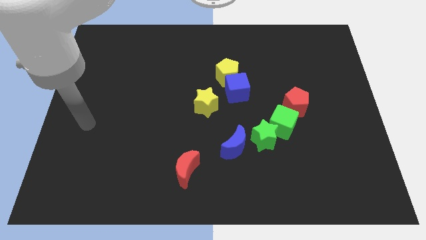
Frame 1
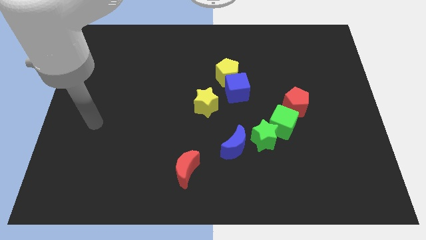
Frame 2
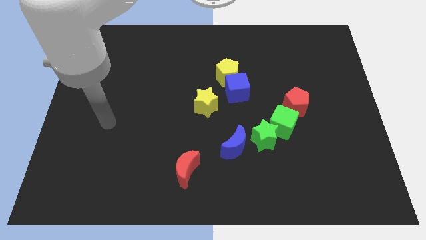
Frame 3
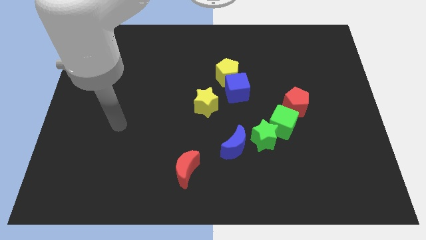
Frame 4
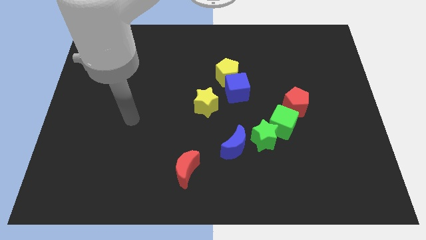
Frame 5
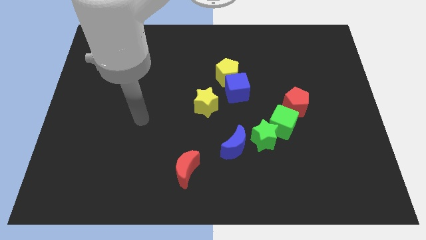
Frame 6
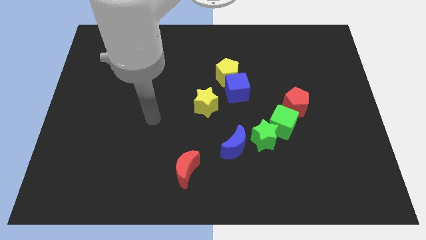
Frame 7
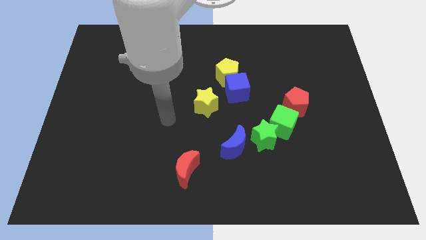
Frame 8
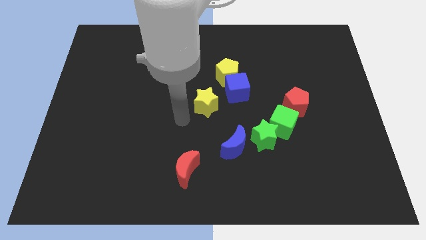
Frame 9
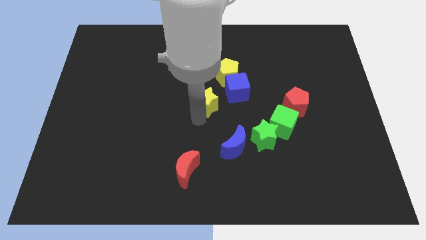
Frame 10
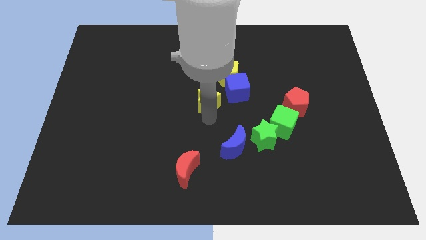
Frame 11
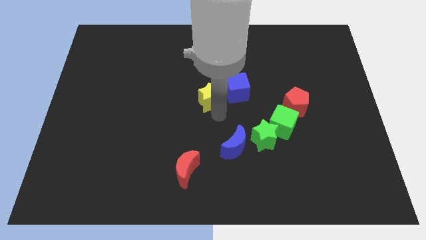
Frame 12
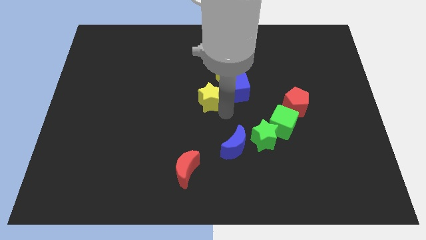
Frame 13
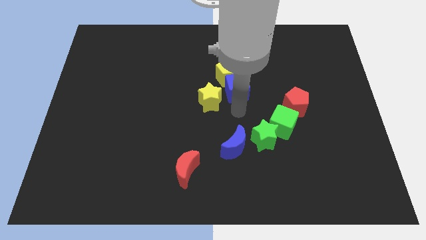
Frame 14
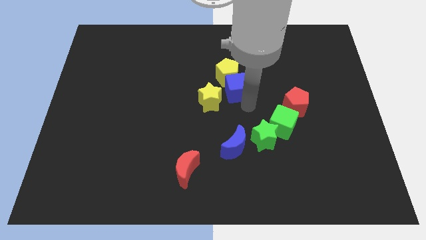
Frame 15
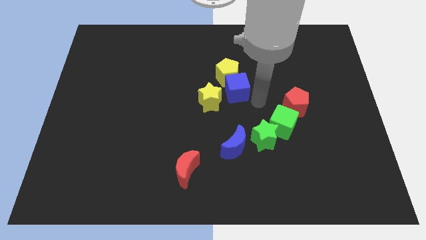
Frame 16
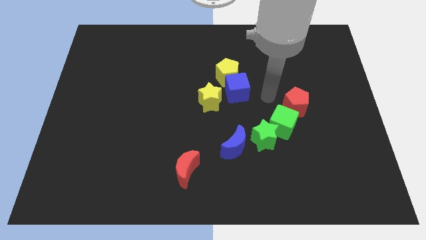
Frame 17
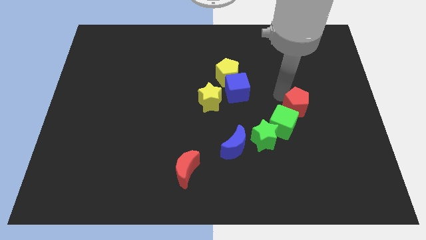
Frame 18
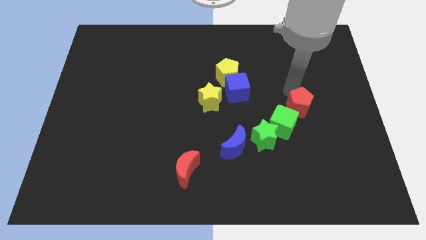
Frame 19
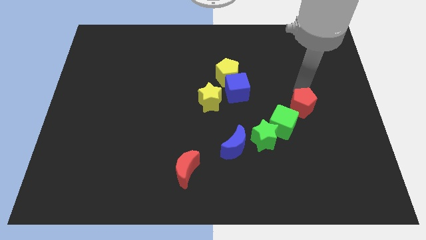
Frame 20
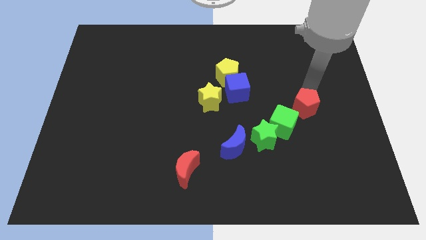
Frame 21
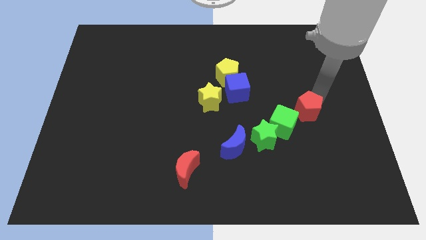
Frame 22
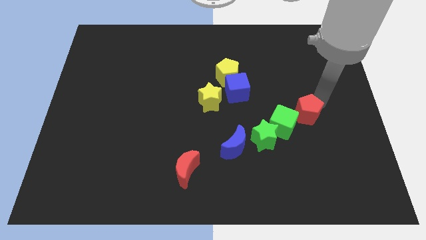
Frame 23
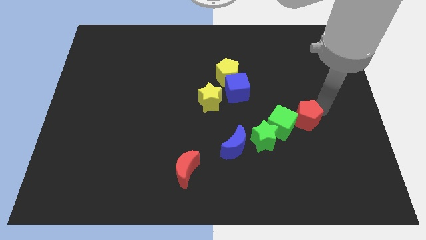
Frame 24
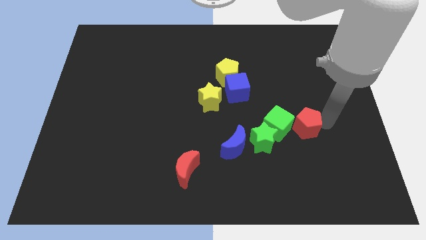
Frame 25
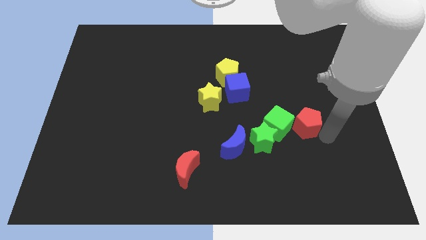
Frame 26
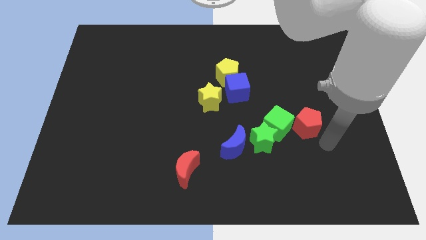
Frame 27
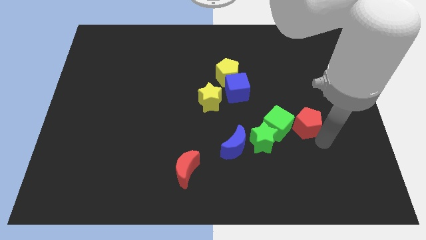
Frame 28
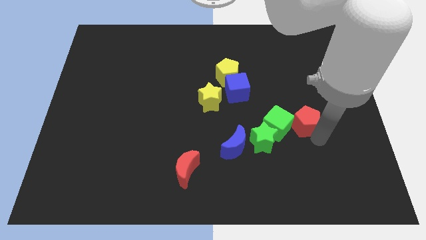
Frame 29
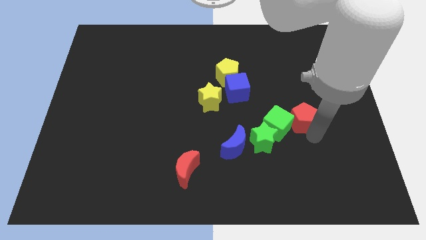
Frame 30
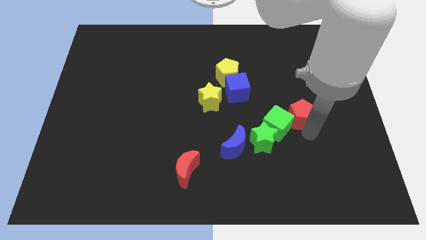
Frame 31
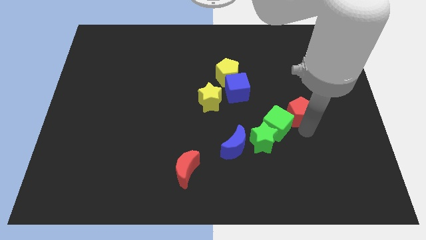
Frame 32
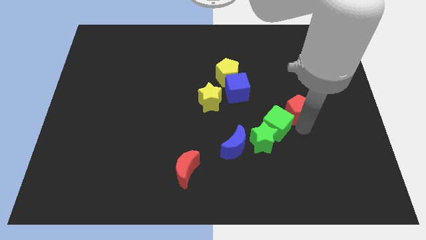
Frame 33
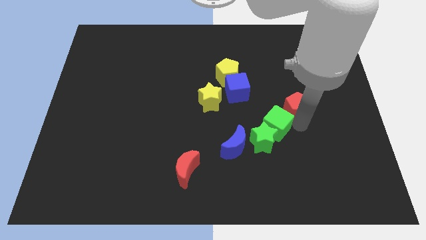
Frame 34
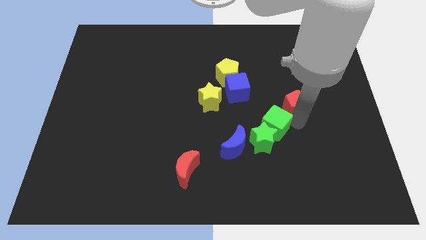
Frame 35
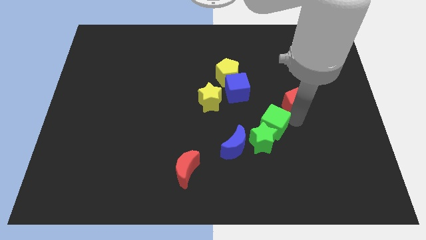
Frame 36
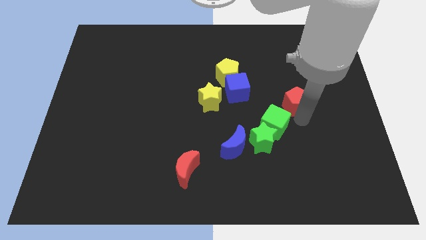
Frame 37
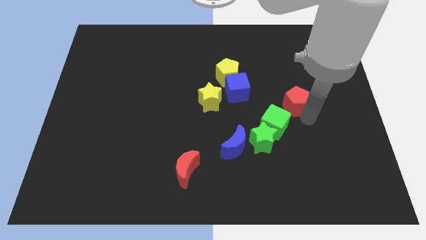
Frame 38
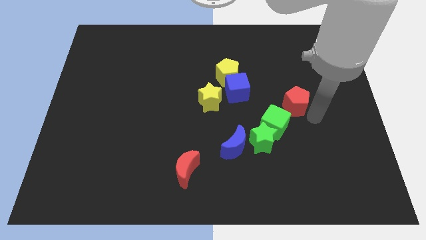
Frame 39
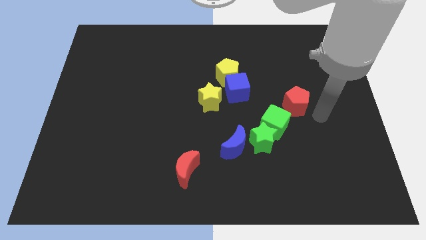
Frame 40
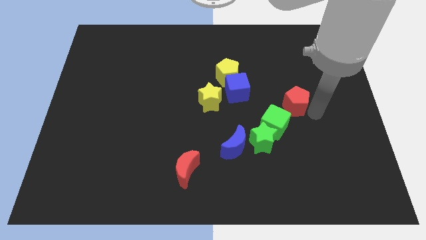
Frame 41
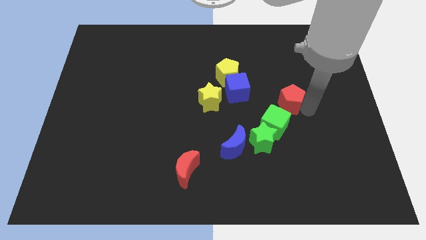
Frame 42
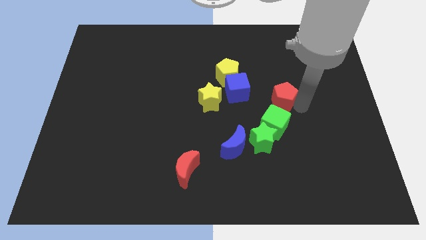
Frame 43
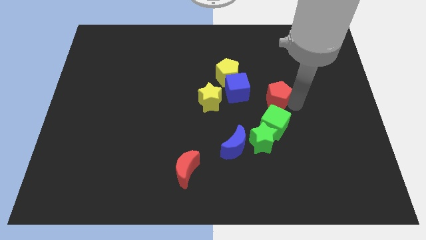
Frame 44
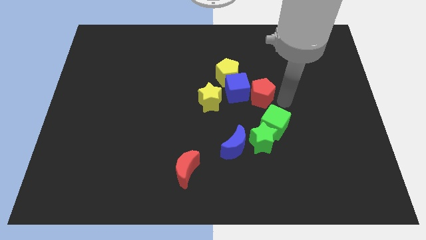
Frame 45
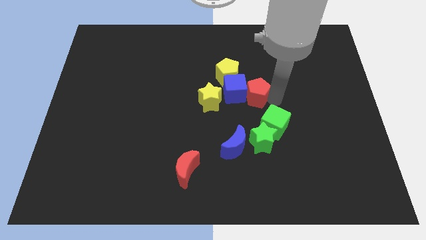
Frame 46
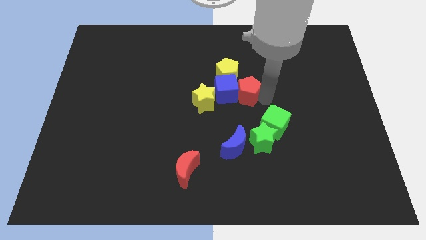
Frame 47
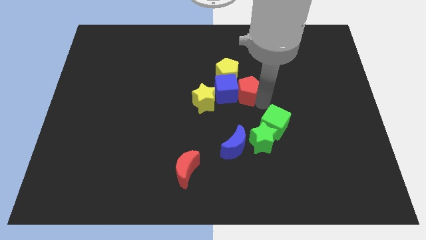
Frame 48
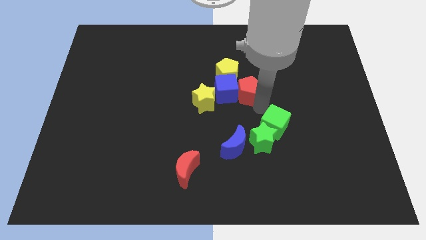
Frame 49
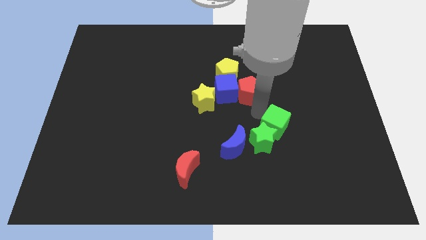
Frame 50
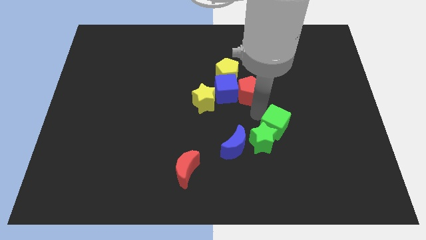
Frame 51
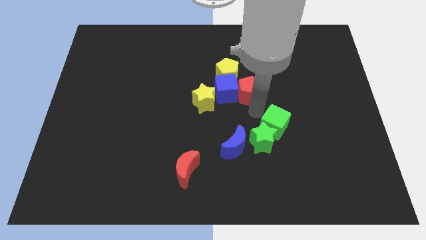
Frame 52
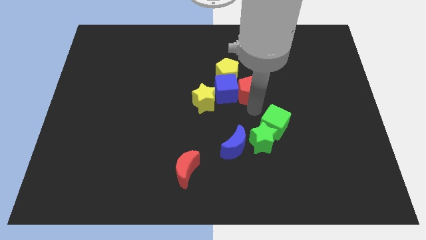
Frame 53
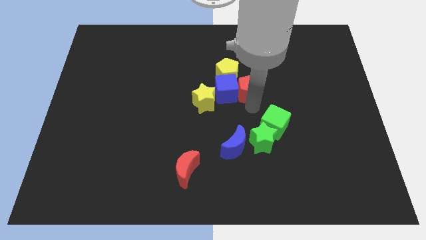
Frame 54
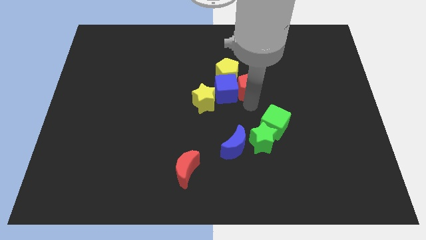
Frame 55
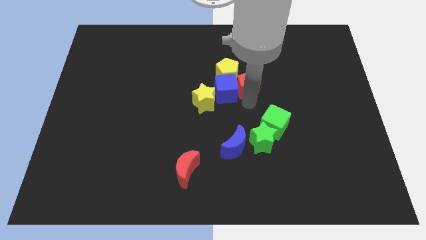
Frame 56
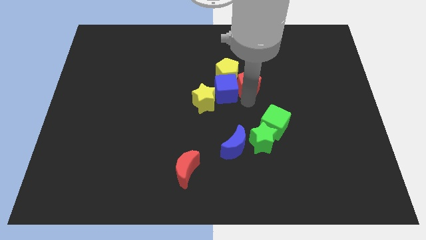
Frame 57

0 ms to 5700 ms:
push the red pentagon towards the yellow pentagon
